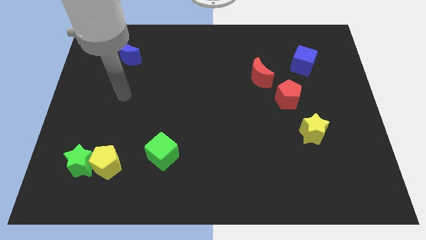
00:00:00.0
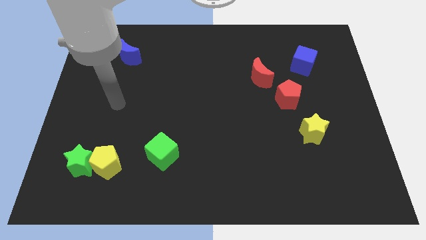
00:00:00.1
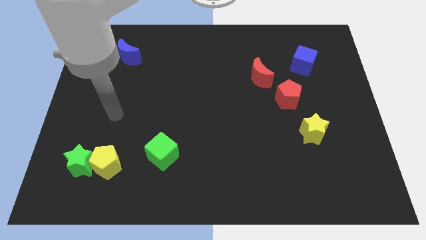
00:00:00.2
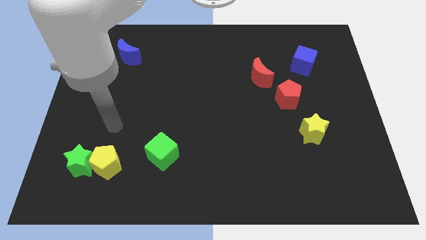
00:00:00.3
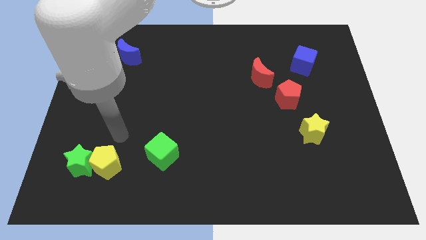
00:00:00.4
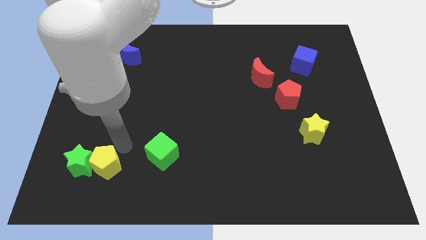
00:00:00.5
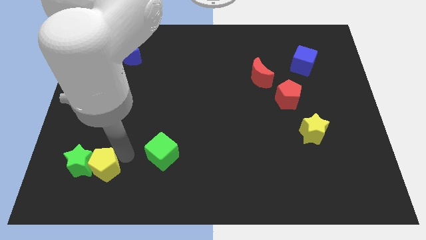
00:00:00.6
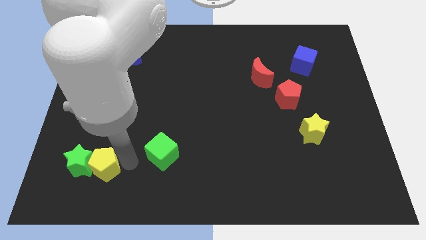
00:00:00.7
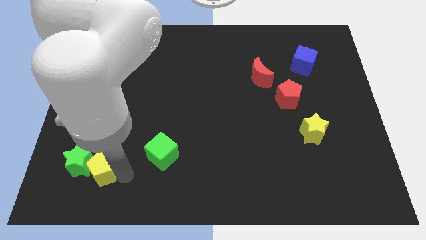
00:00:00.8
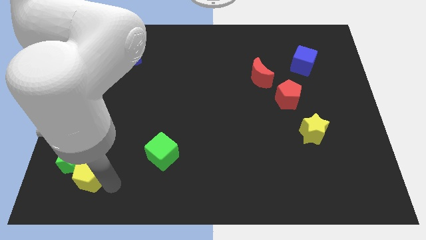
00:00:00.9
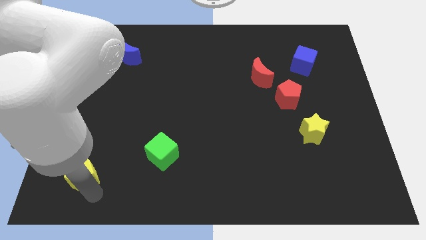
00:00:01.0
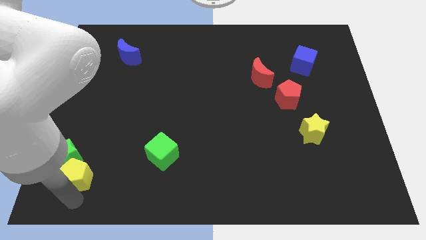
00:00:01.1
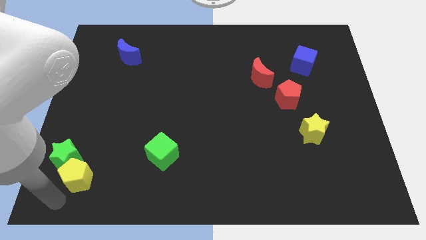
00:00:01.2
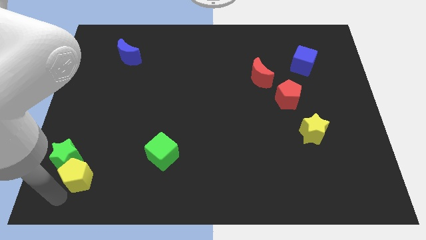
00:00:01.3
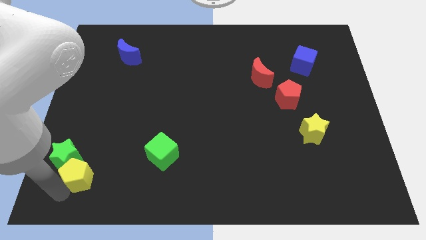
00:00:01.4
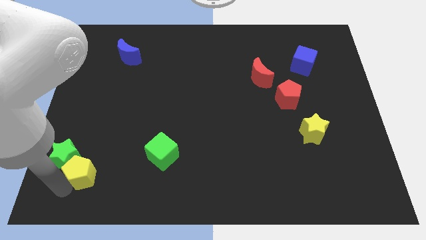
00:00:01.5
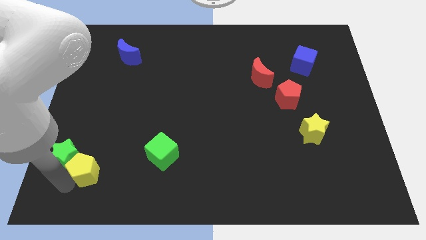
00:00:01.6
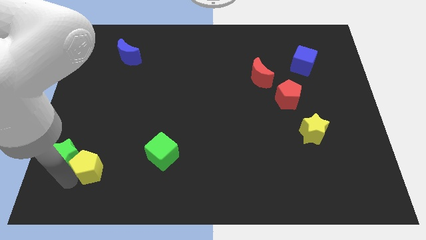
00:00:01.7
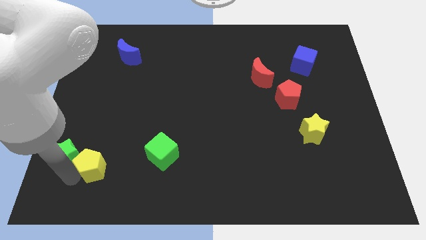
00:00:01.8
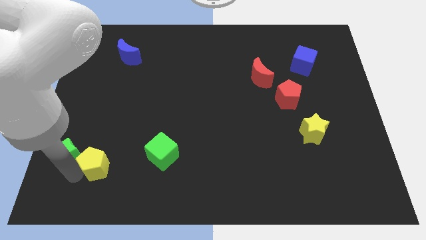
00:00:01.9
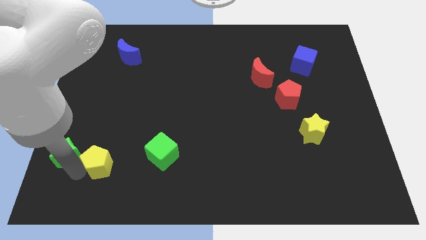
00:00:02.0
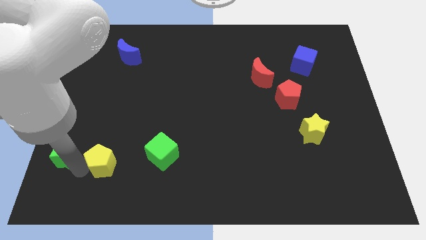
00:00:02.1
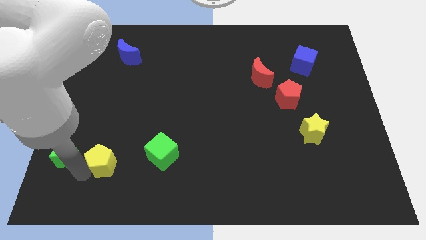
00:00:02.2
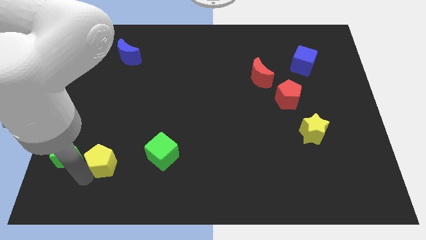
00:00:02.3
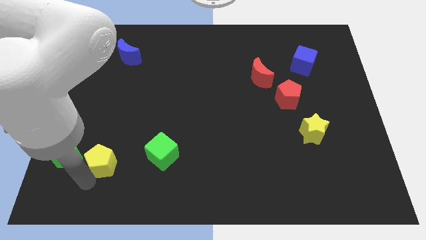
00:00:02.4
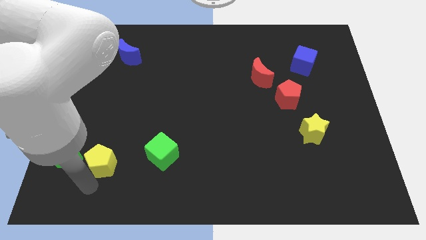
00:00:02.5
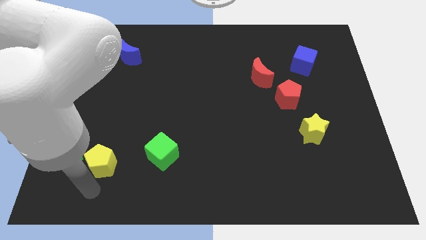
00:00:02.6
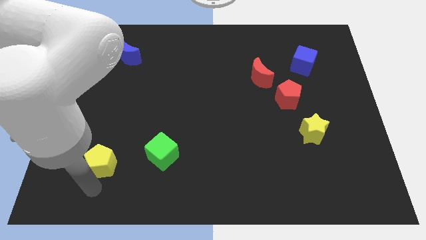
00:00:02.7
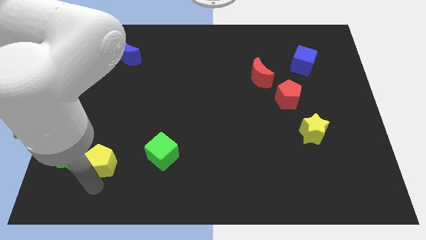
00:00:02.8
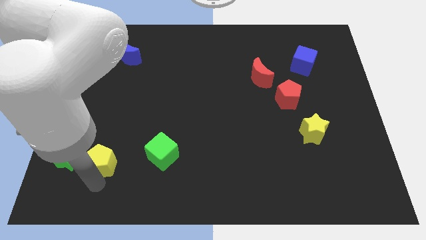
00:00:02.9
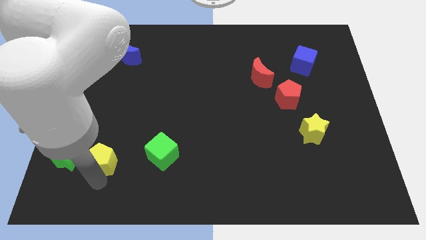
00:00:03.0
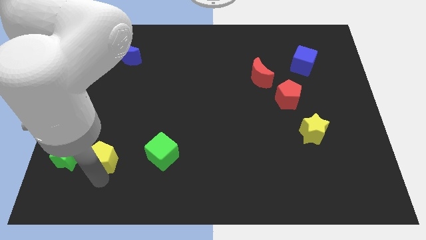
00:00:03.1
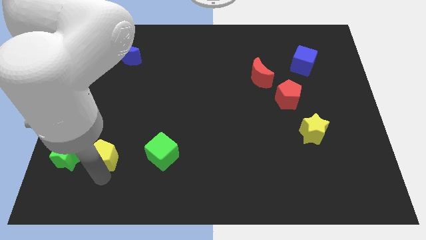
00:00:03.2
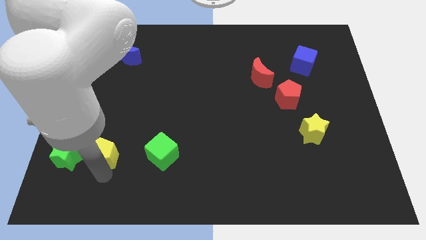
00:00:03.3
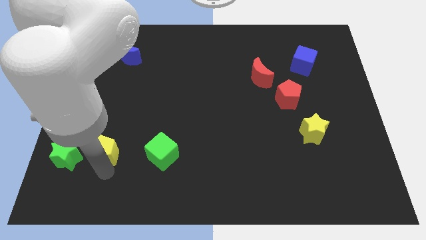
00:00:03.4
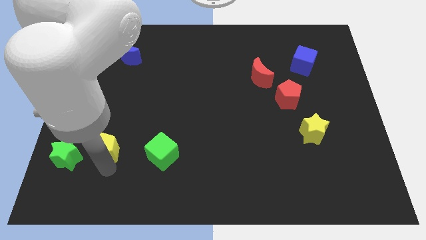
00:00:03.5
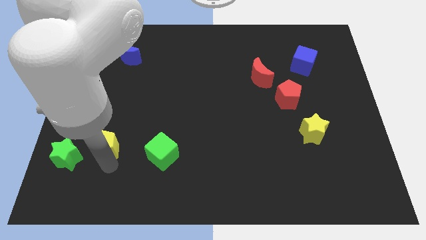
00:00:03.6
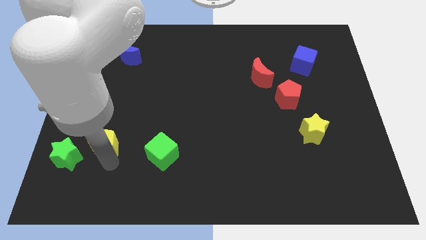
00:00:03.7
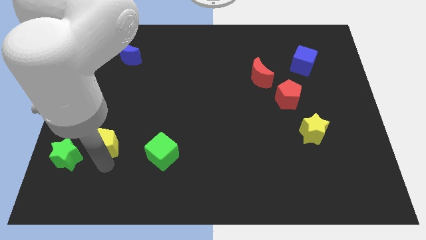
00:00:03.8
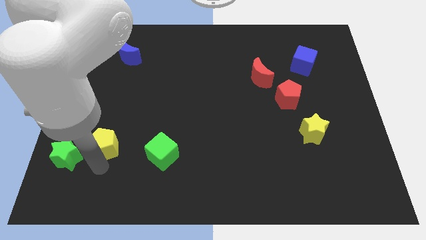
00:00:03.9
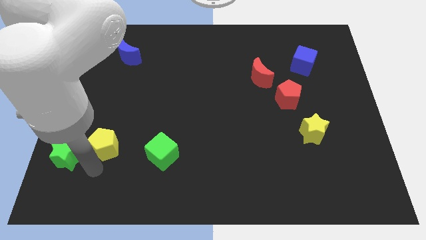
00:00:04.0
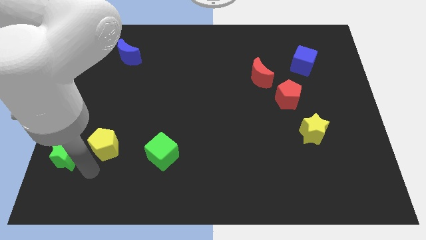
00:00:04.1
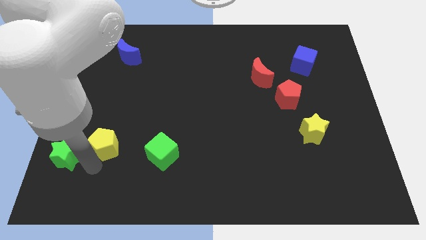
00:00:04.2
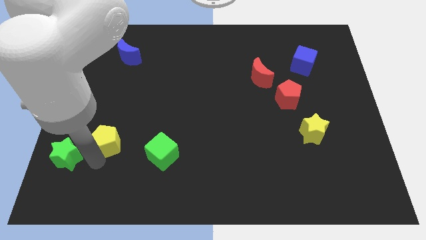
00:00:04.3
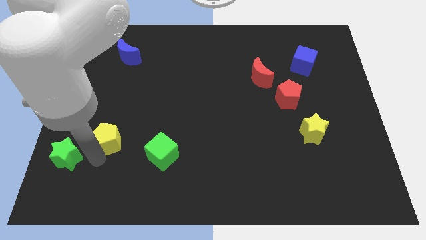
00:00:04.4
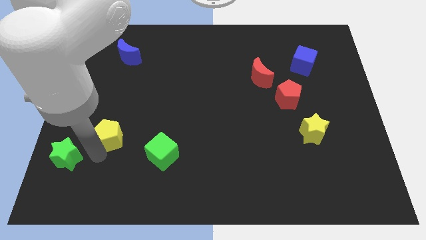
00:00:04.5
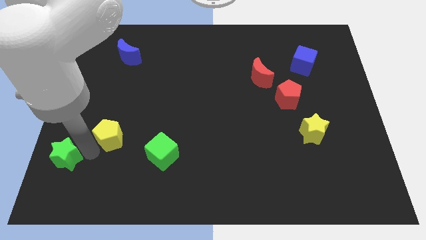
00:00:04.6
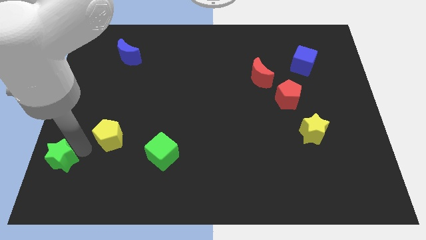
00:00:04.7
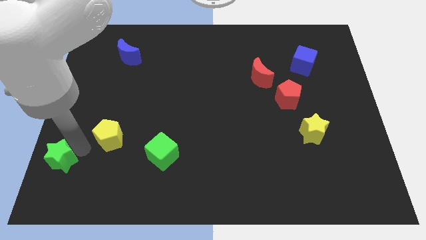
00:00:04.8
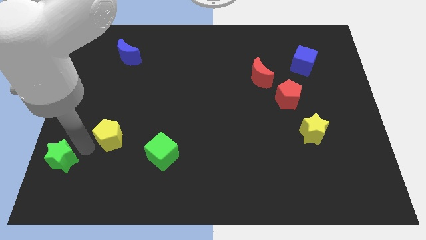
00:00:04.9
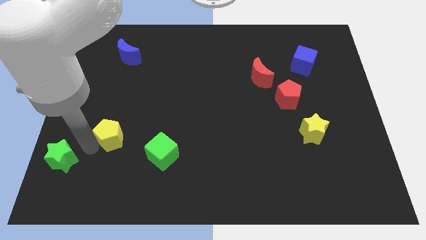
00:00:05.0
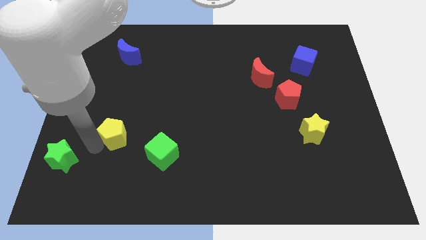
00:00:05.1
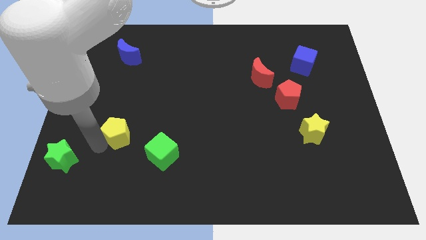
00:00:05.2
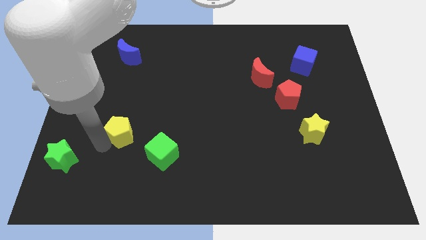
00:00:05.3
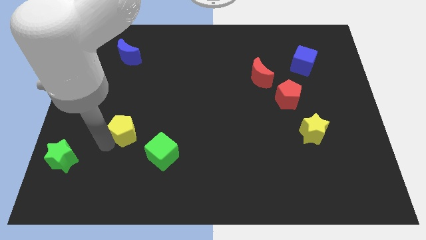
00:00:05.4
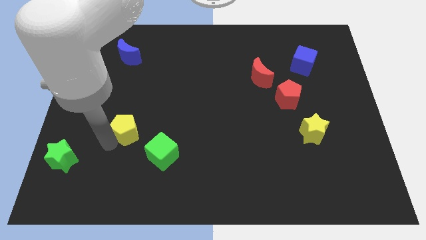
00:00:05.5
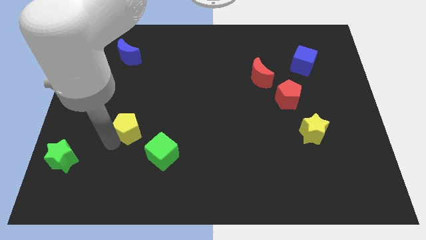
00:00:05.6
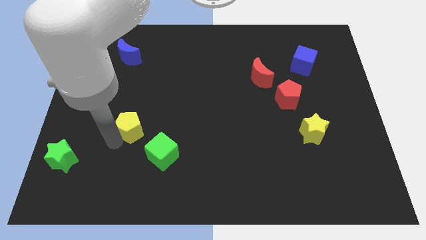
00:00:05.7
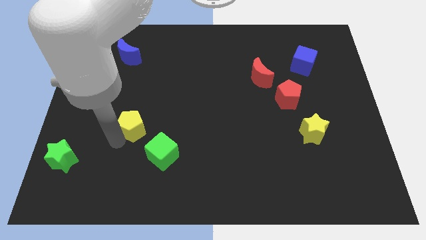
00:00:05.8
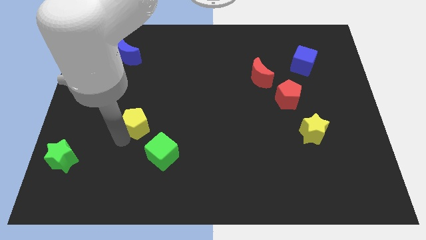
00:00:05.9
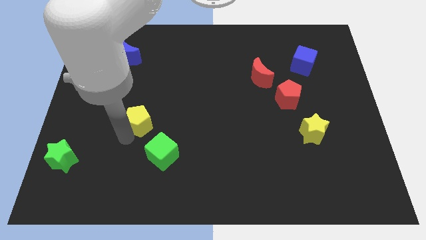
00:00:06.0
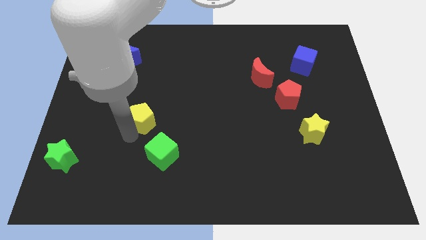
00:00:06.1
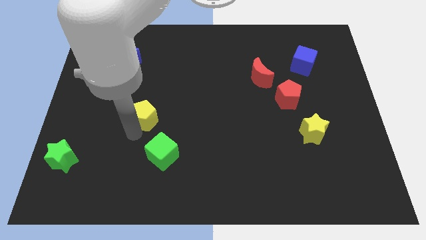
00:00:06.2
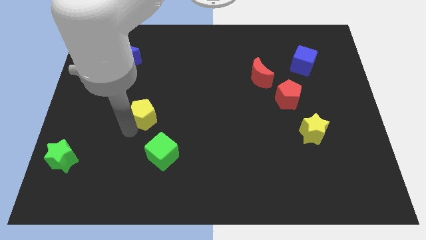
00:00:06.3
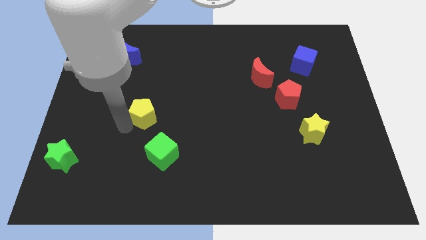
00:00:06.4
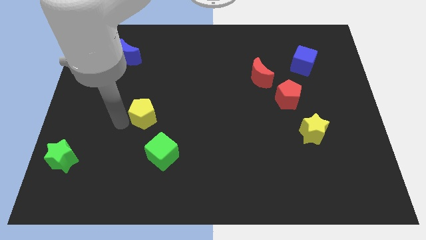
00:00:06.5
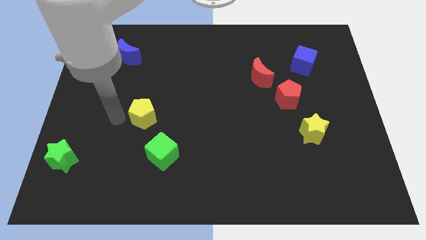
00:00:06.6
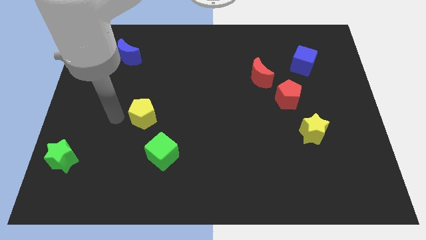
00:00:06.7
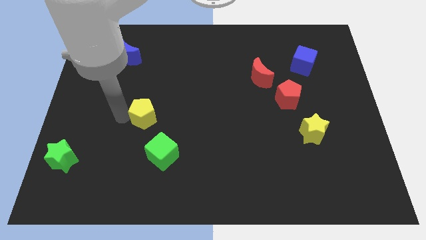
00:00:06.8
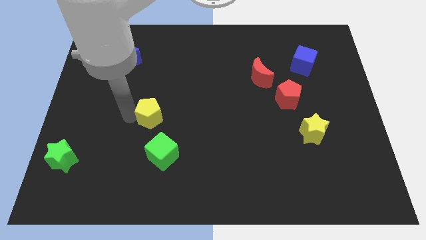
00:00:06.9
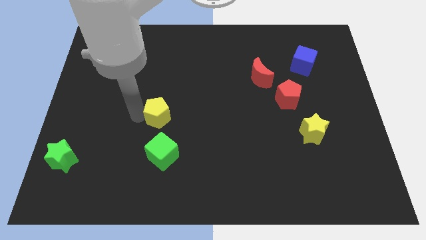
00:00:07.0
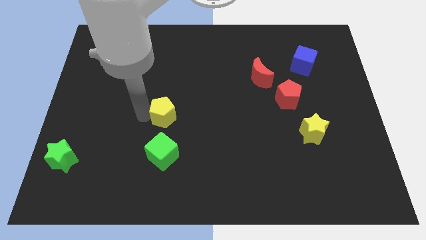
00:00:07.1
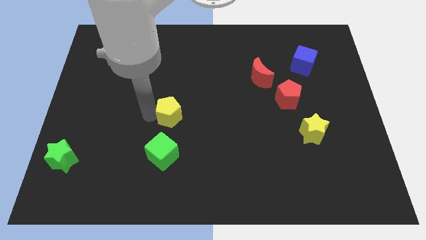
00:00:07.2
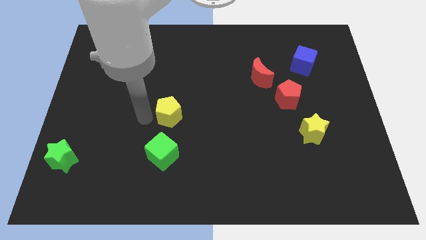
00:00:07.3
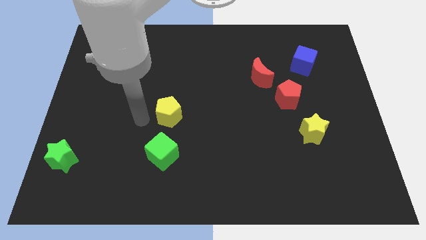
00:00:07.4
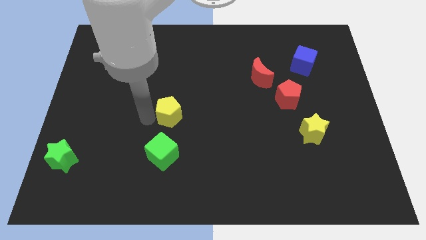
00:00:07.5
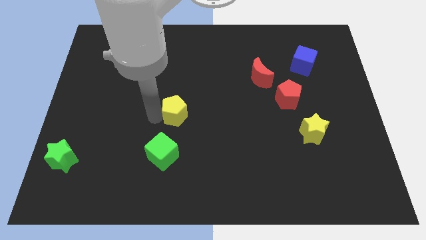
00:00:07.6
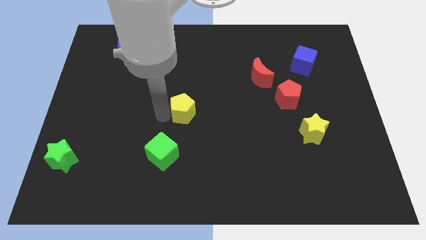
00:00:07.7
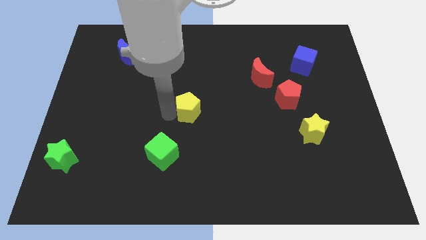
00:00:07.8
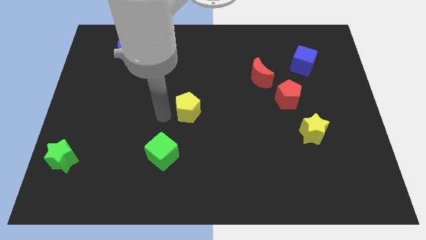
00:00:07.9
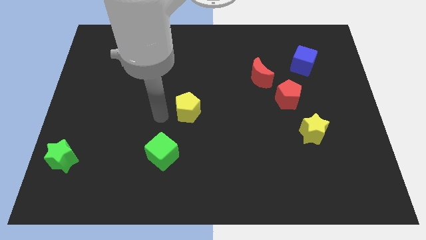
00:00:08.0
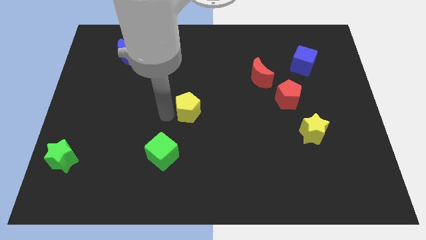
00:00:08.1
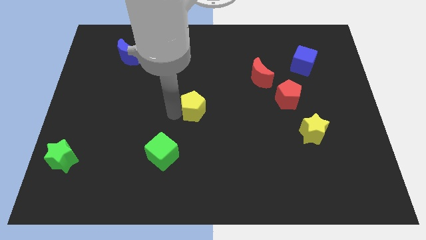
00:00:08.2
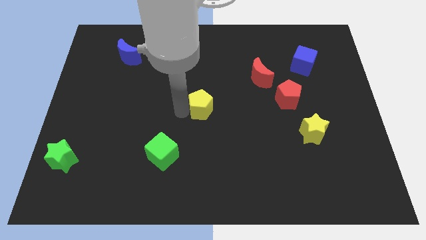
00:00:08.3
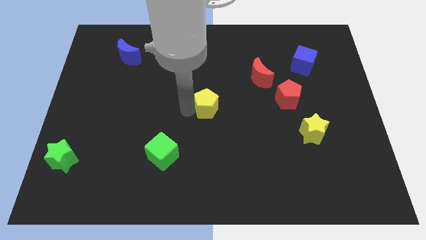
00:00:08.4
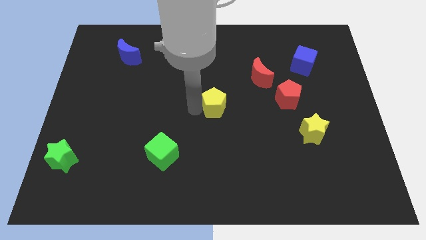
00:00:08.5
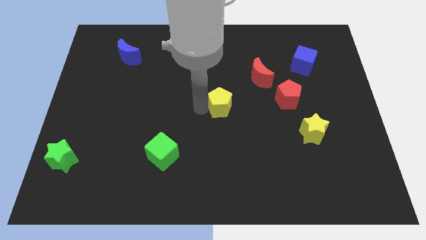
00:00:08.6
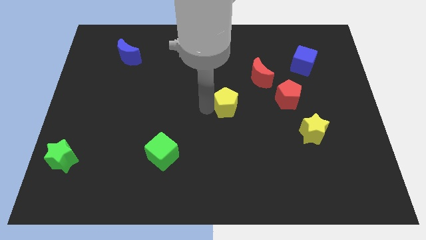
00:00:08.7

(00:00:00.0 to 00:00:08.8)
move the yellow pentagon left of the red pentagon
